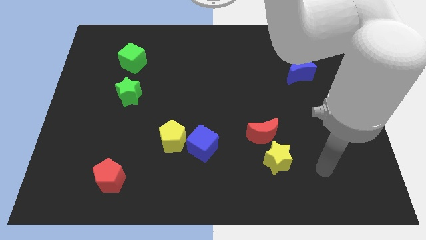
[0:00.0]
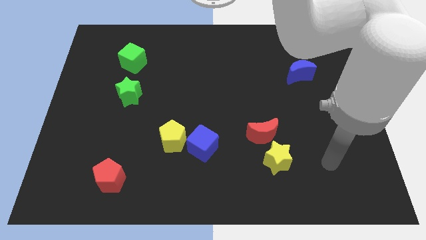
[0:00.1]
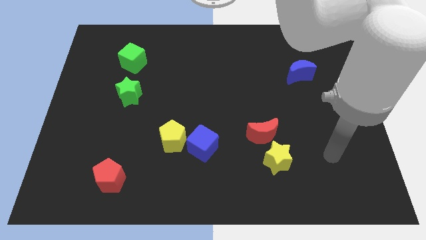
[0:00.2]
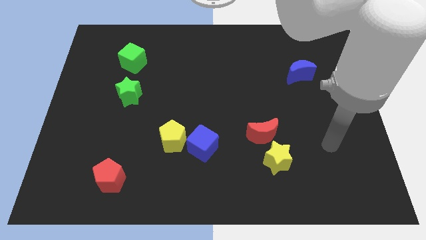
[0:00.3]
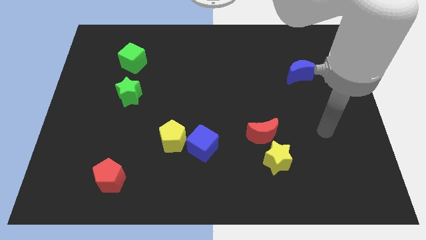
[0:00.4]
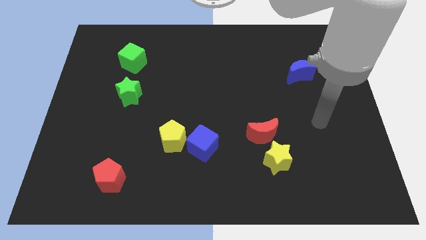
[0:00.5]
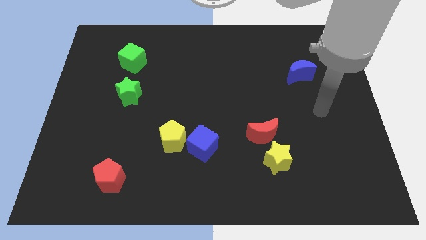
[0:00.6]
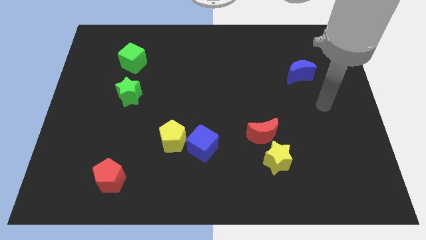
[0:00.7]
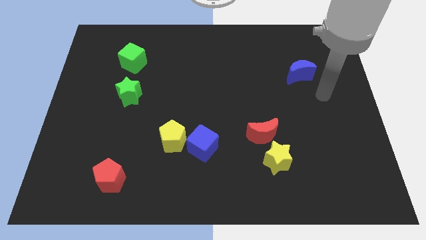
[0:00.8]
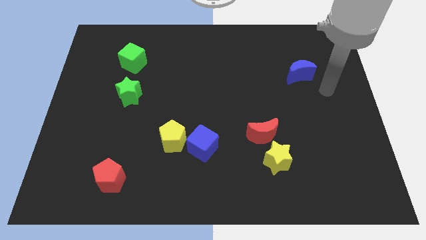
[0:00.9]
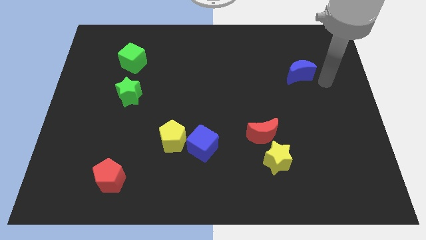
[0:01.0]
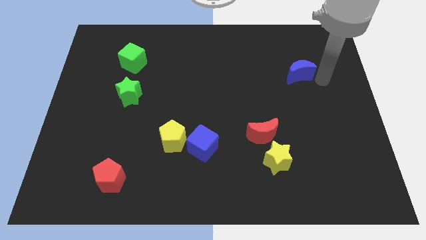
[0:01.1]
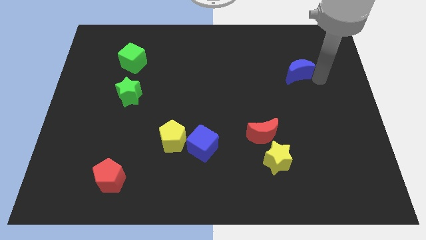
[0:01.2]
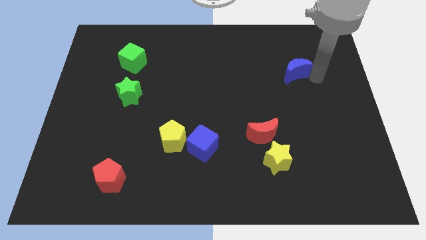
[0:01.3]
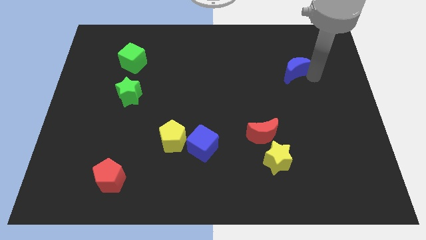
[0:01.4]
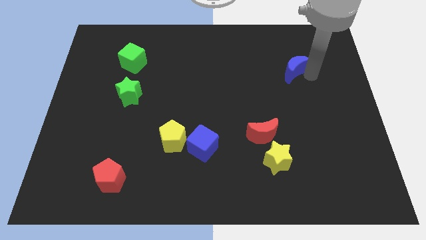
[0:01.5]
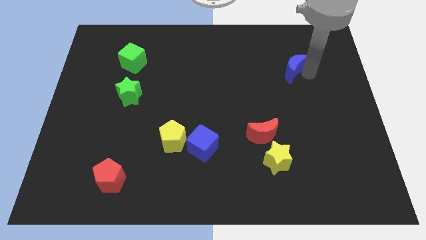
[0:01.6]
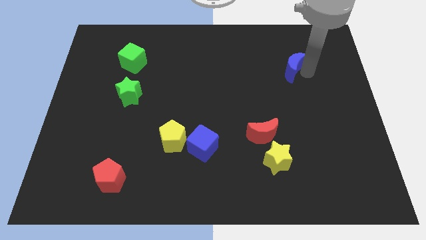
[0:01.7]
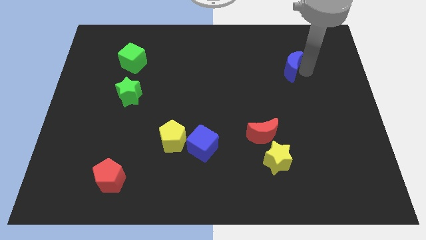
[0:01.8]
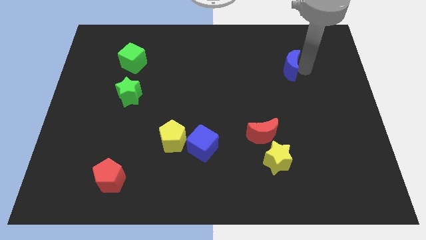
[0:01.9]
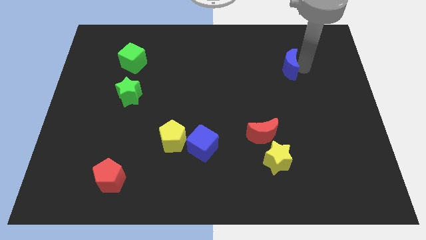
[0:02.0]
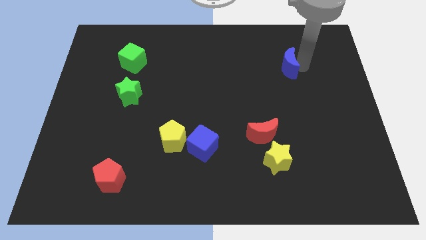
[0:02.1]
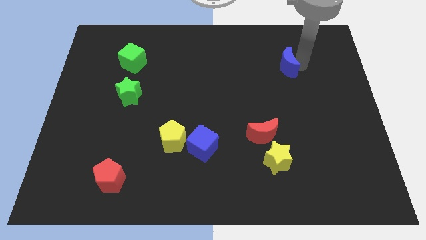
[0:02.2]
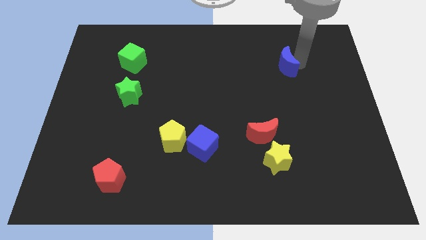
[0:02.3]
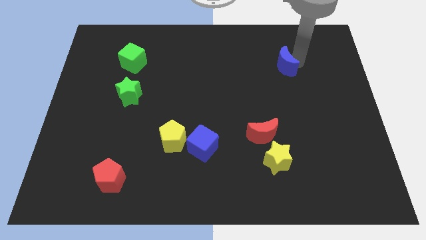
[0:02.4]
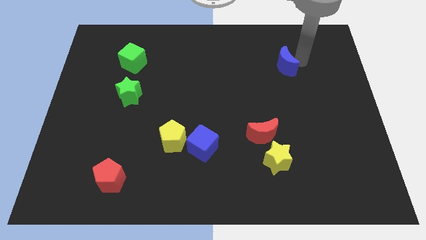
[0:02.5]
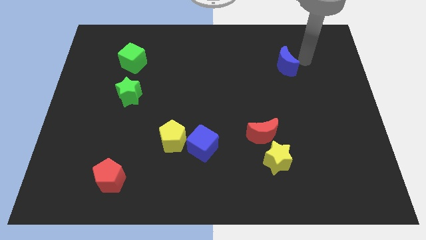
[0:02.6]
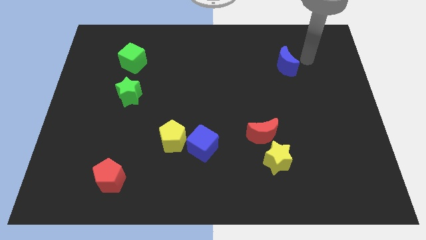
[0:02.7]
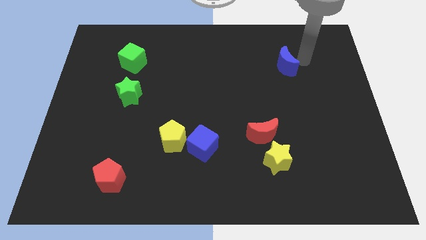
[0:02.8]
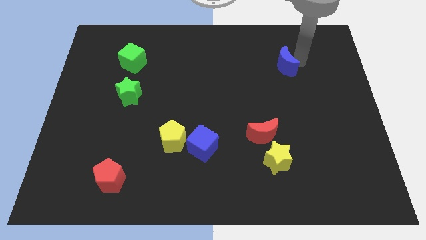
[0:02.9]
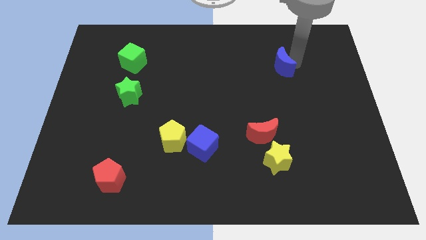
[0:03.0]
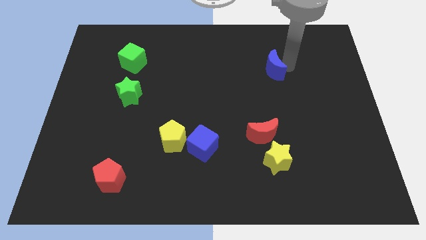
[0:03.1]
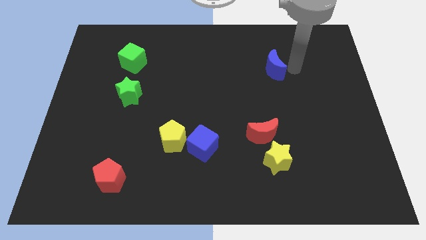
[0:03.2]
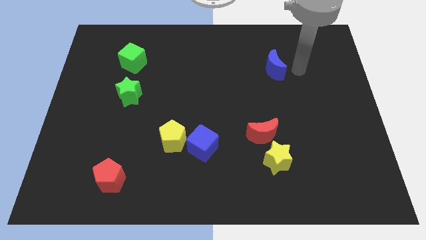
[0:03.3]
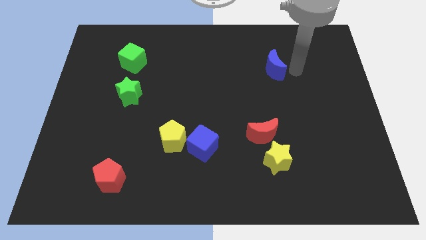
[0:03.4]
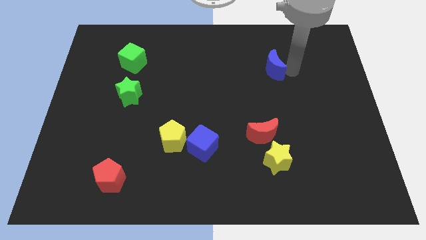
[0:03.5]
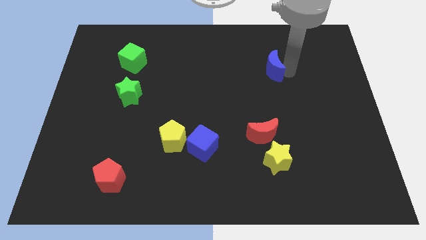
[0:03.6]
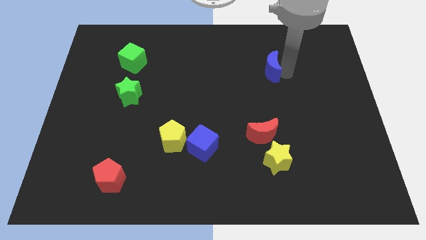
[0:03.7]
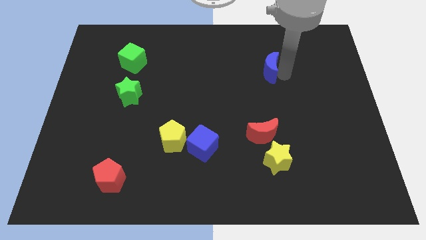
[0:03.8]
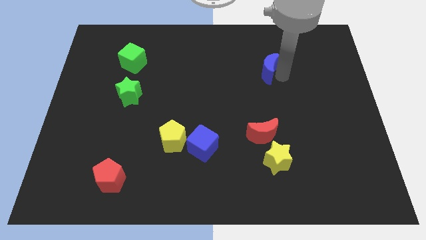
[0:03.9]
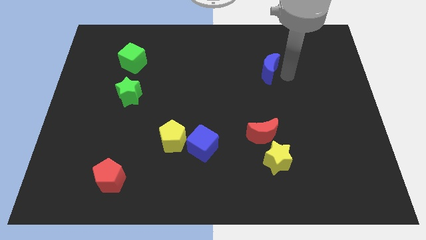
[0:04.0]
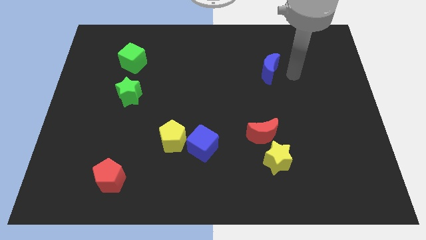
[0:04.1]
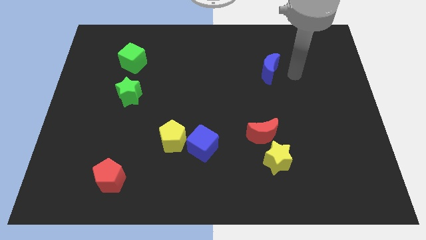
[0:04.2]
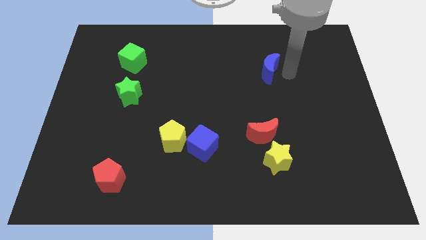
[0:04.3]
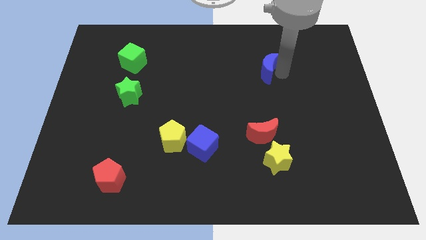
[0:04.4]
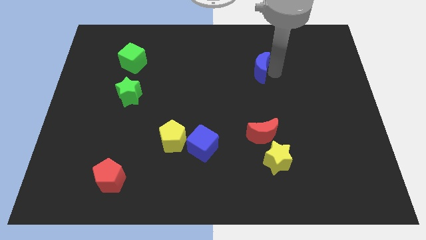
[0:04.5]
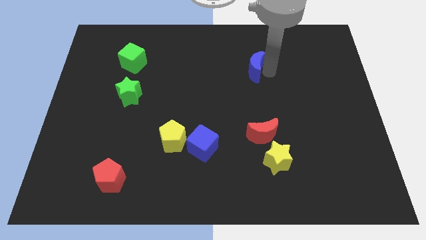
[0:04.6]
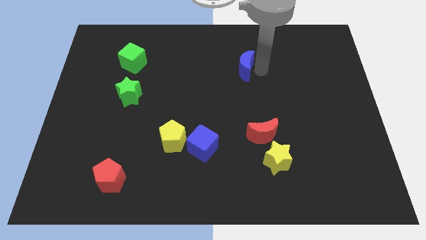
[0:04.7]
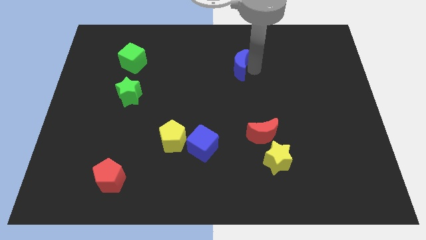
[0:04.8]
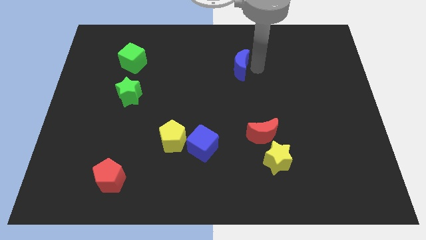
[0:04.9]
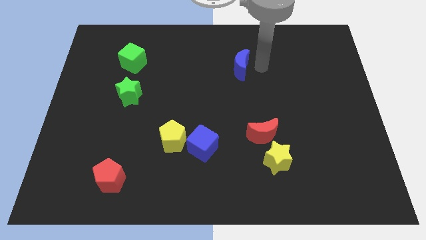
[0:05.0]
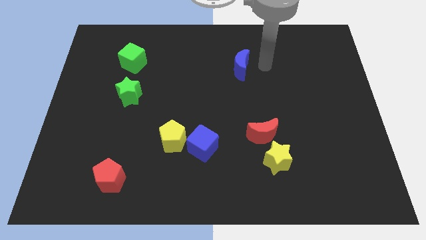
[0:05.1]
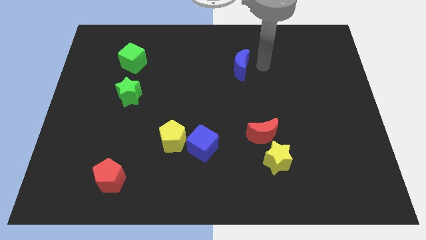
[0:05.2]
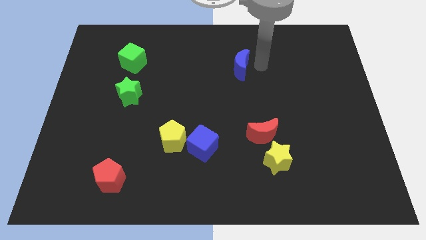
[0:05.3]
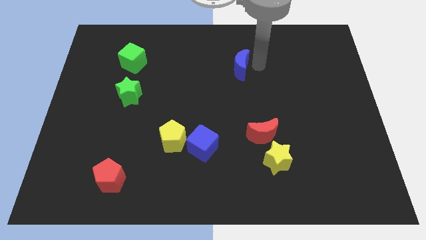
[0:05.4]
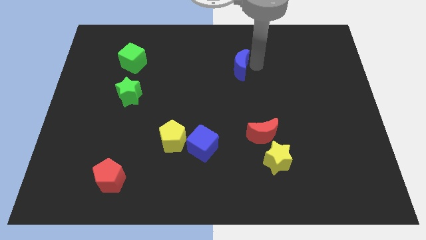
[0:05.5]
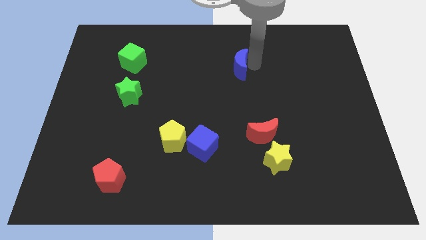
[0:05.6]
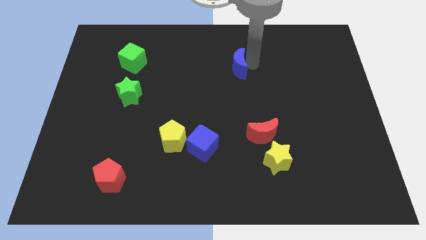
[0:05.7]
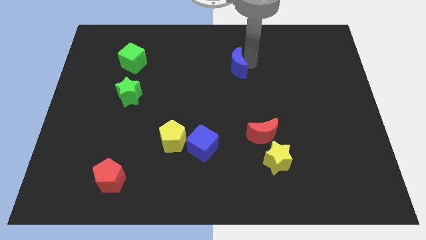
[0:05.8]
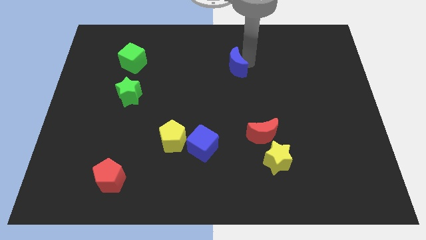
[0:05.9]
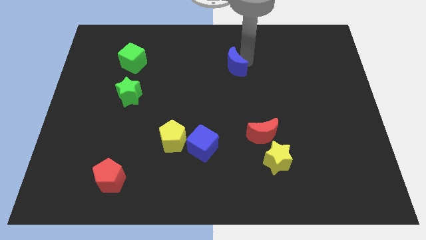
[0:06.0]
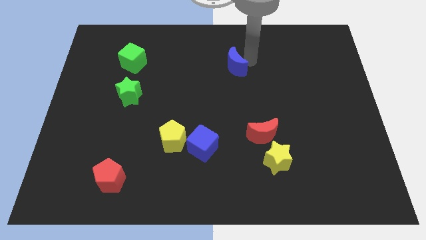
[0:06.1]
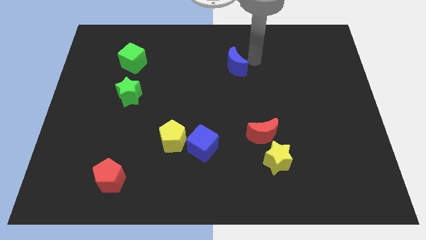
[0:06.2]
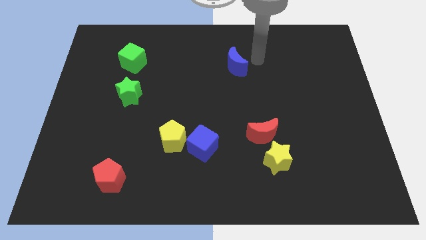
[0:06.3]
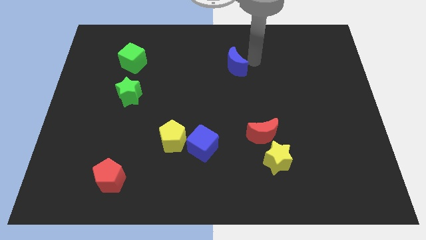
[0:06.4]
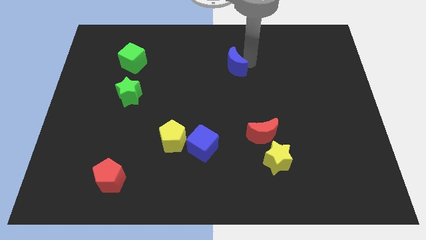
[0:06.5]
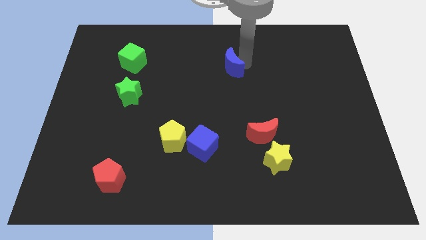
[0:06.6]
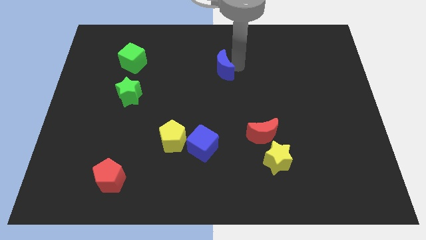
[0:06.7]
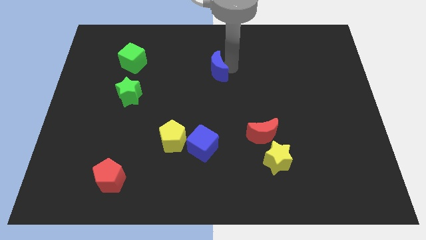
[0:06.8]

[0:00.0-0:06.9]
slide the blue moon to the left

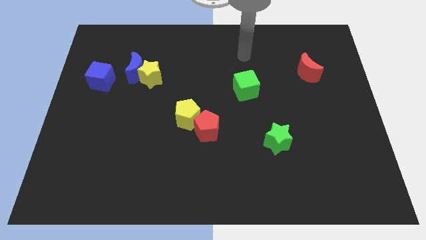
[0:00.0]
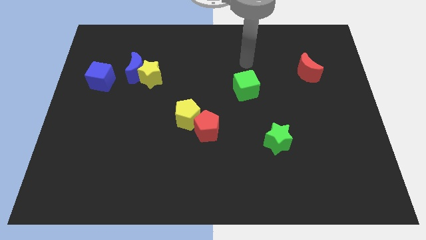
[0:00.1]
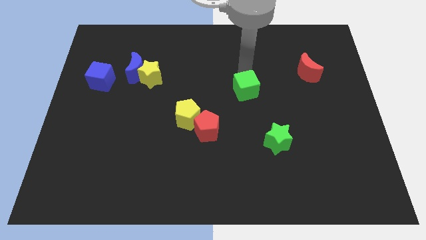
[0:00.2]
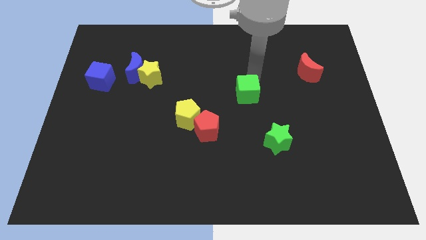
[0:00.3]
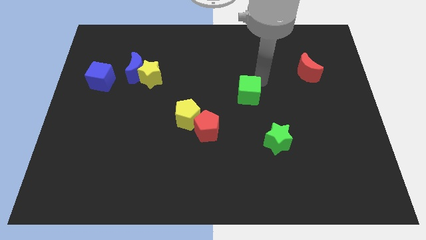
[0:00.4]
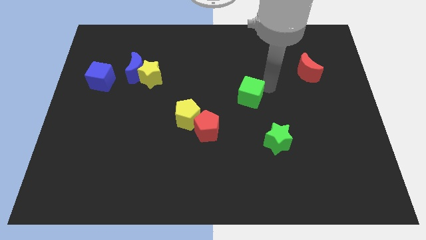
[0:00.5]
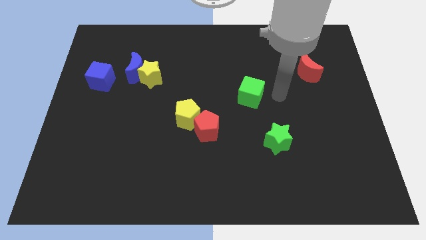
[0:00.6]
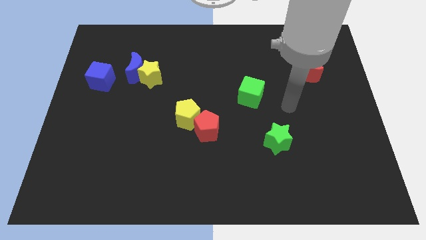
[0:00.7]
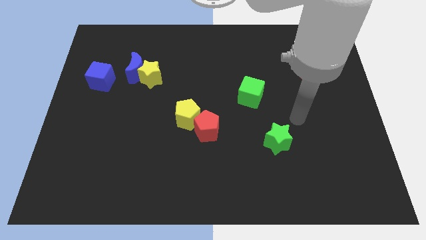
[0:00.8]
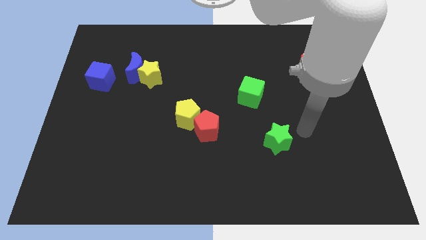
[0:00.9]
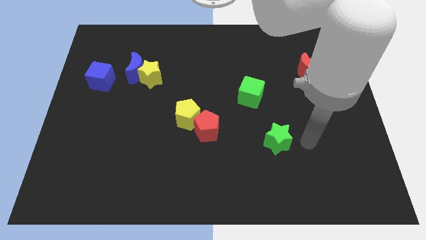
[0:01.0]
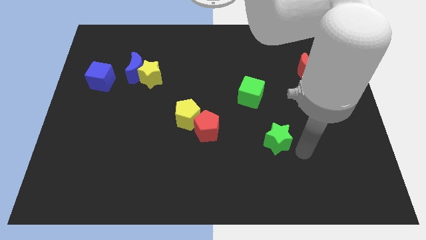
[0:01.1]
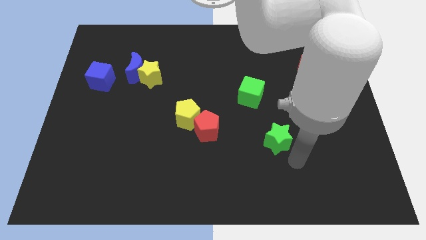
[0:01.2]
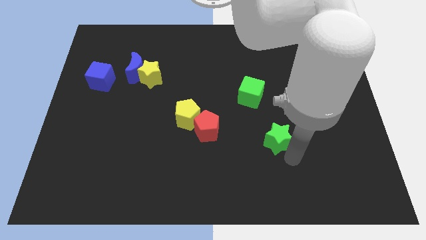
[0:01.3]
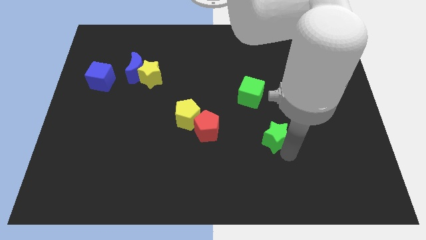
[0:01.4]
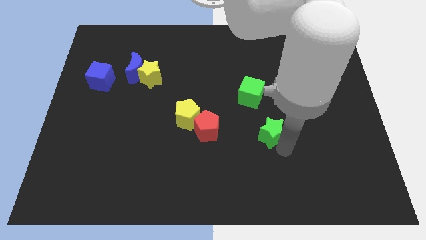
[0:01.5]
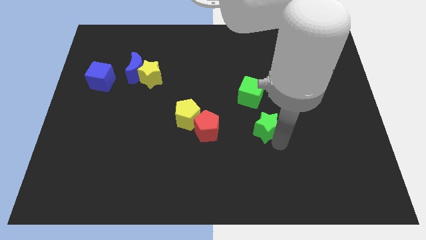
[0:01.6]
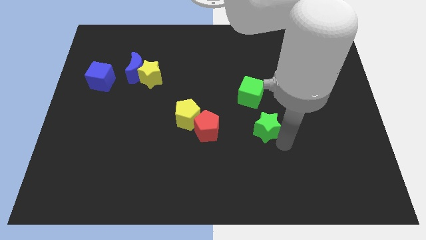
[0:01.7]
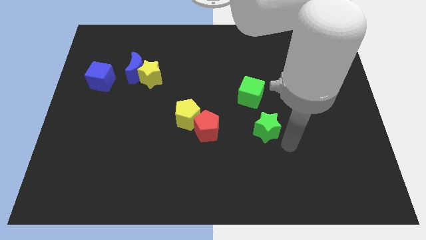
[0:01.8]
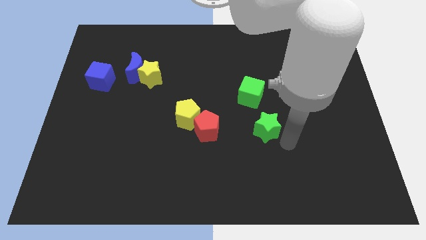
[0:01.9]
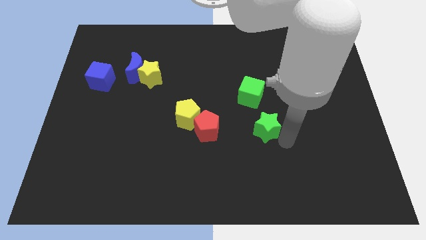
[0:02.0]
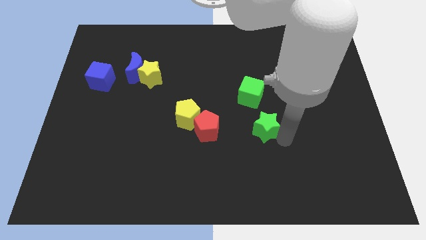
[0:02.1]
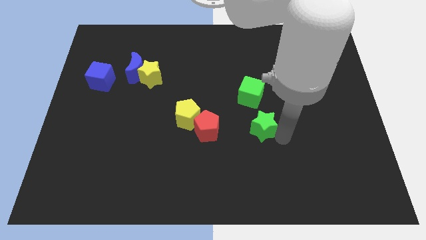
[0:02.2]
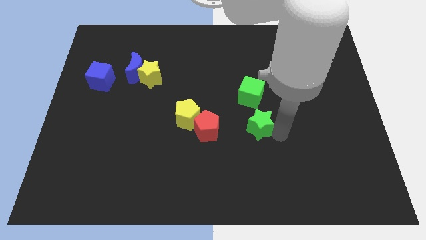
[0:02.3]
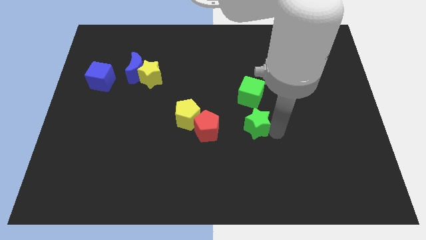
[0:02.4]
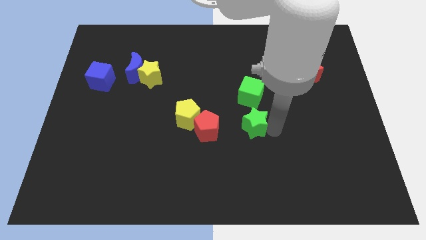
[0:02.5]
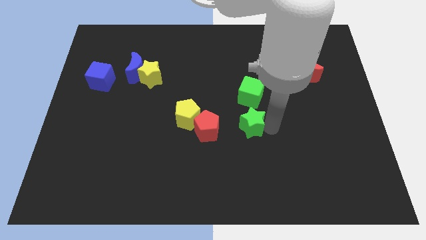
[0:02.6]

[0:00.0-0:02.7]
move the green star a bit diagonally upwards and left
